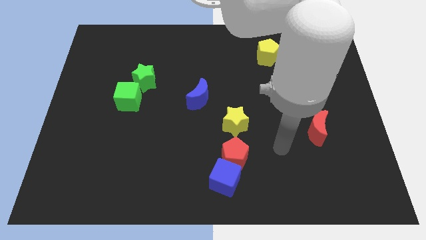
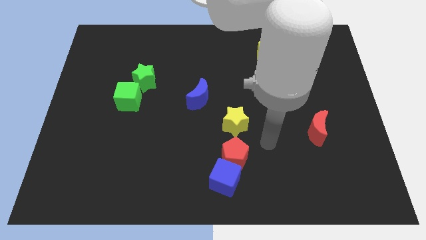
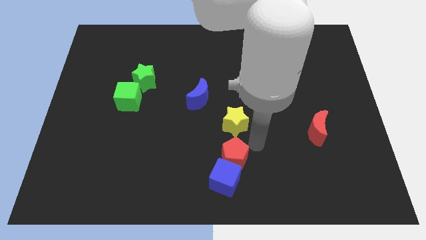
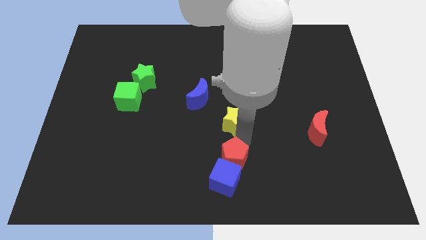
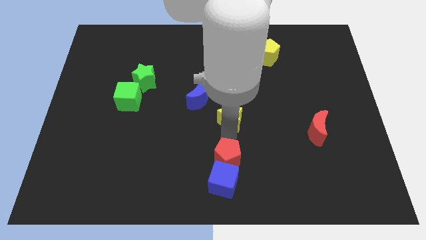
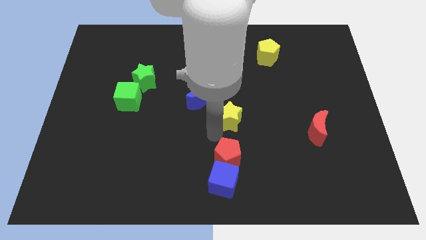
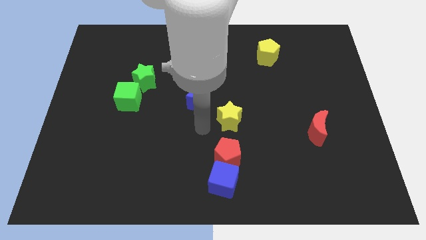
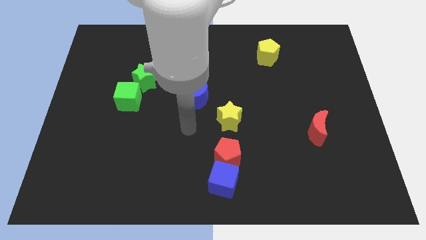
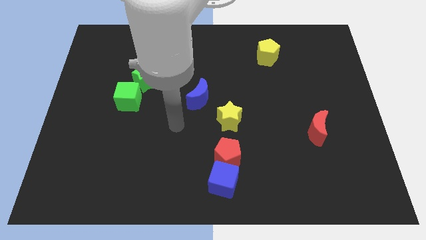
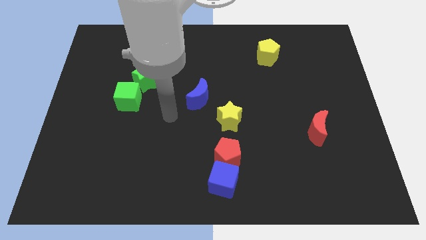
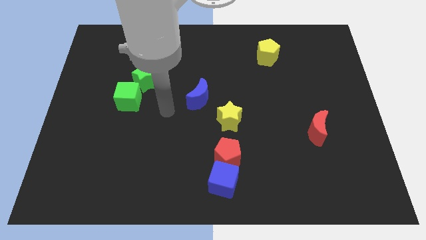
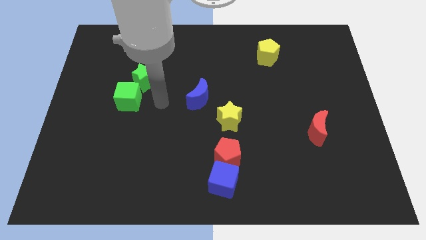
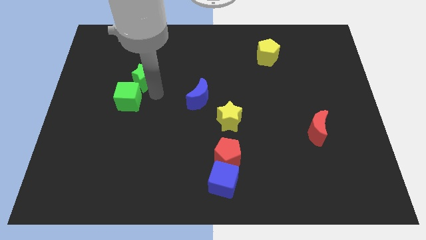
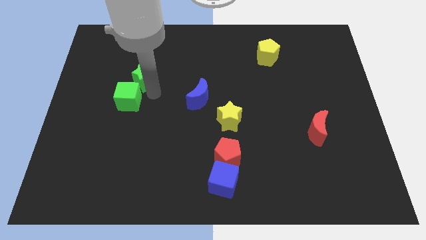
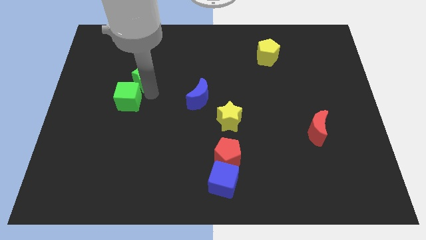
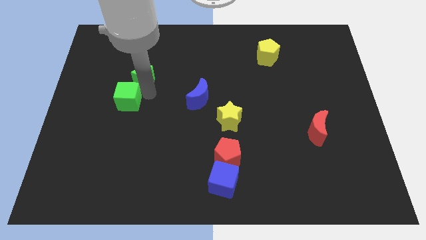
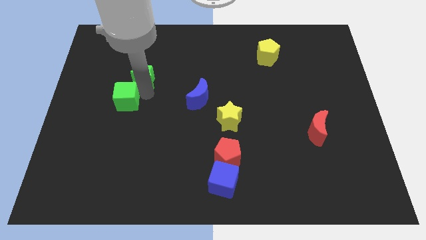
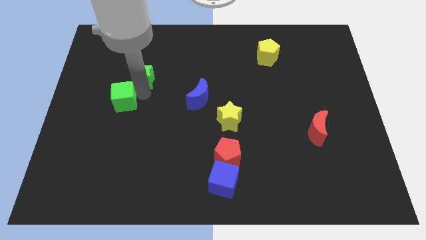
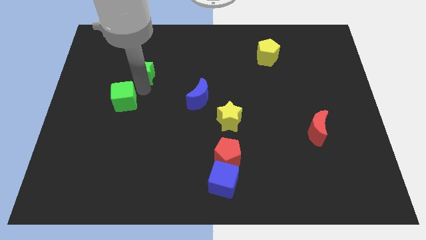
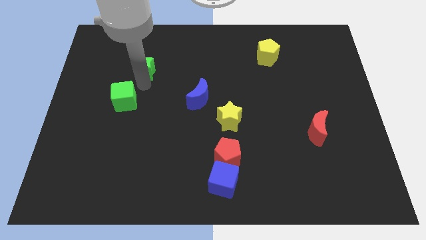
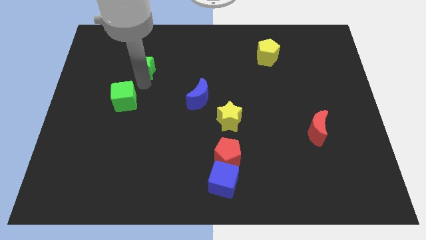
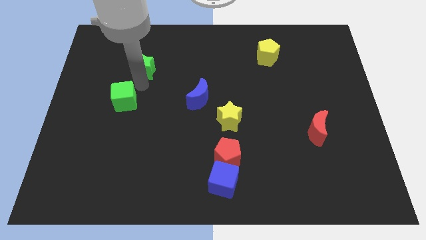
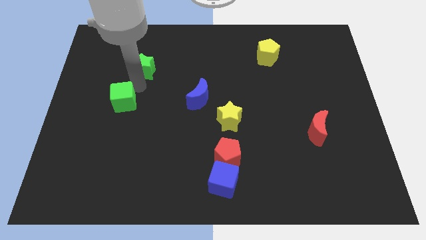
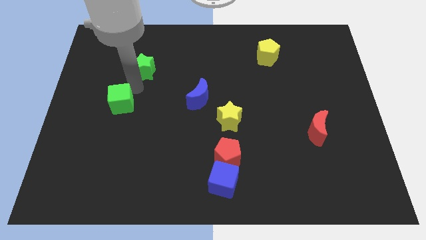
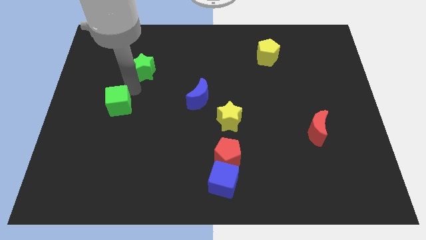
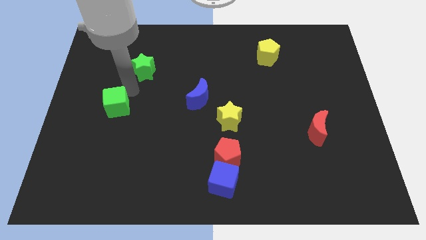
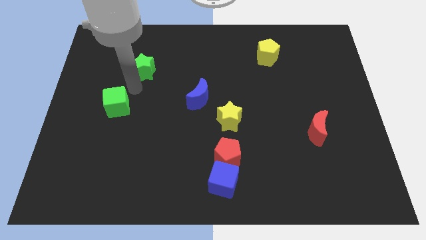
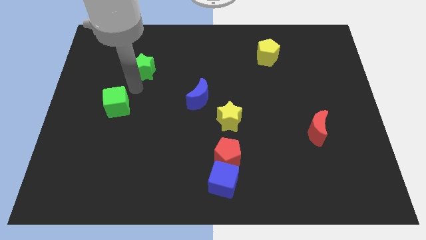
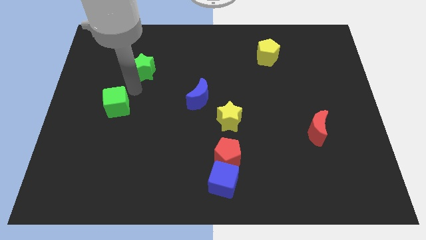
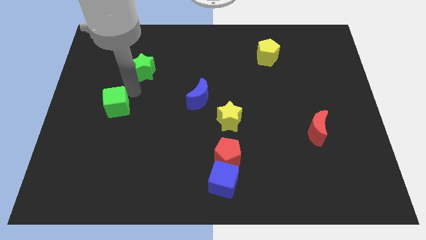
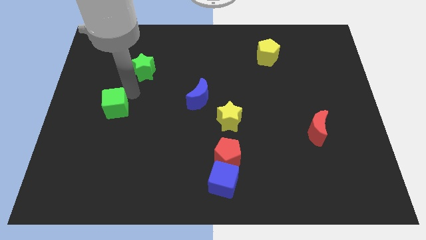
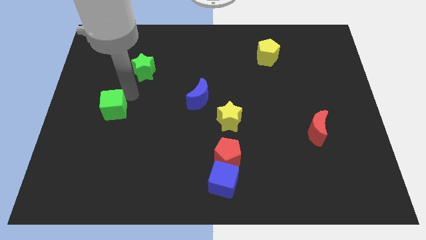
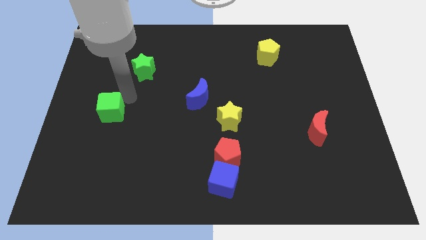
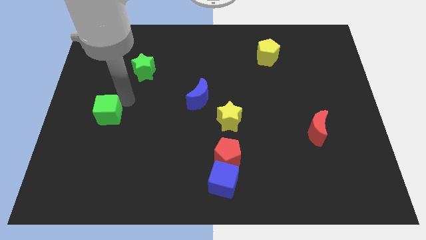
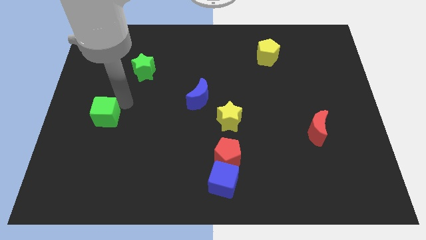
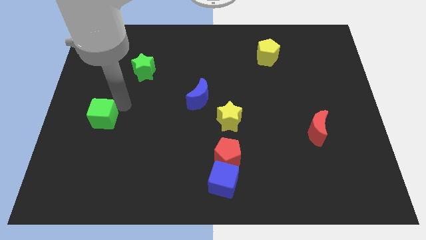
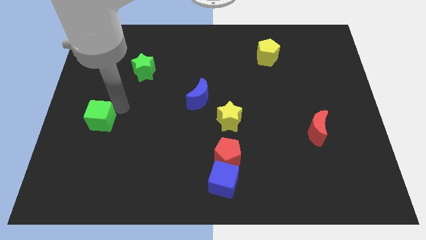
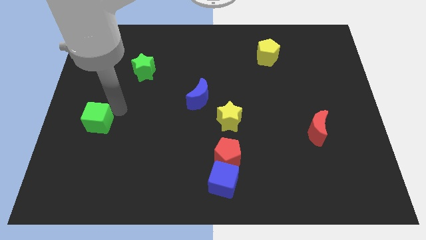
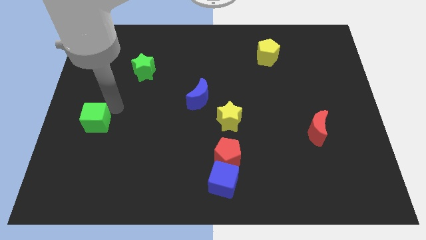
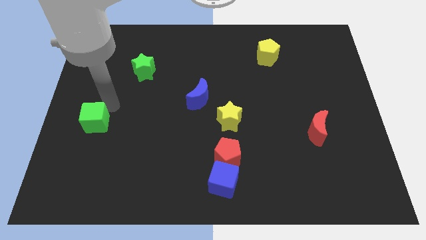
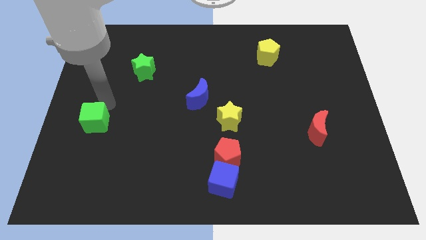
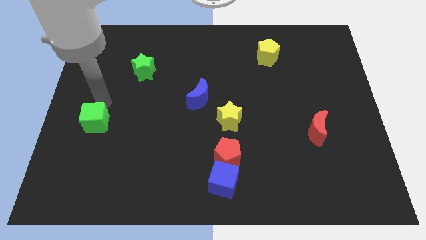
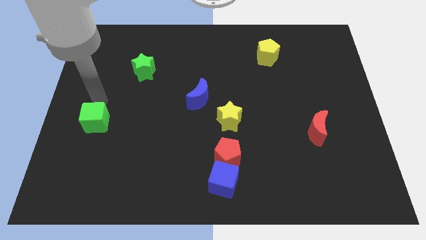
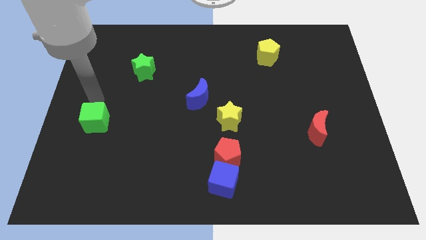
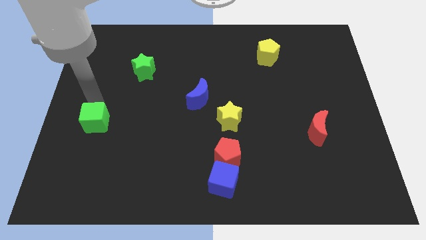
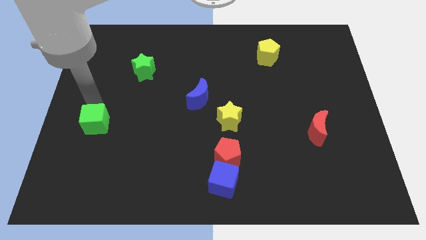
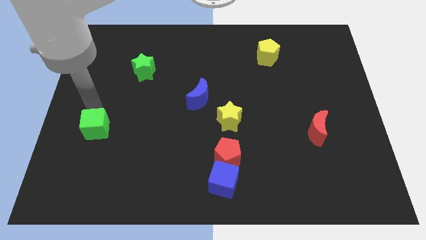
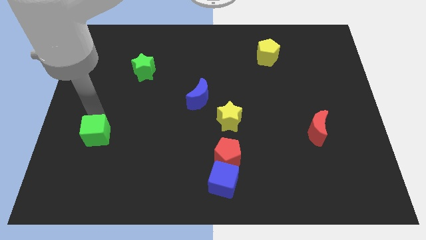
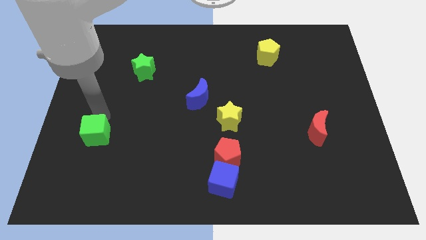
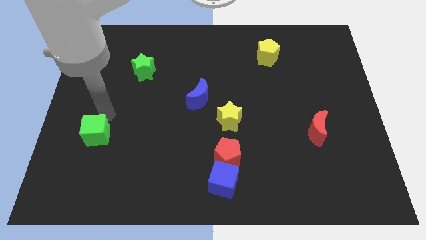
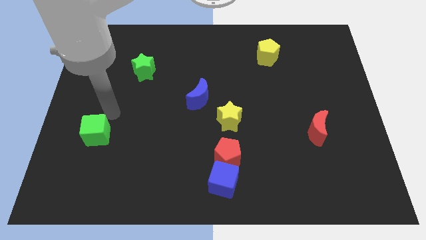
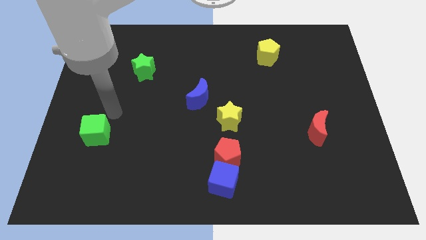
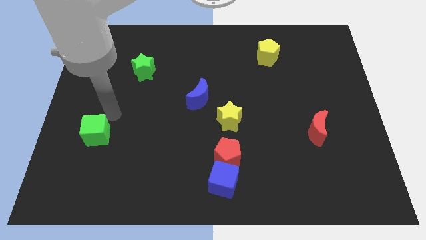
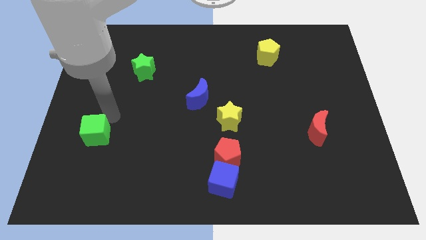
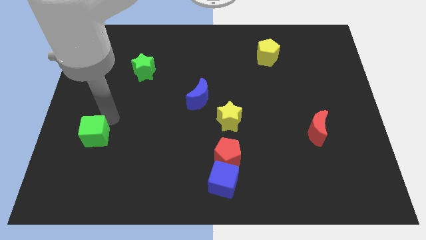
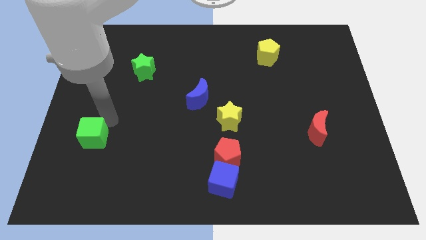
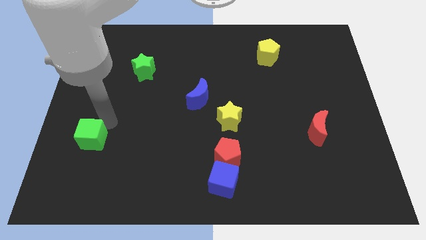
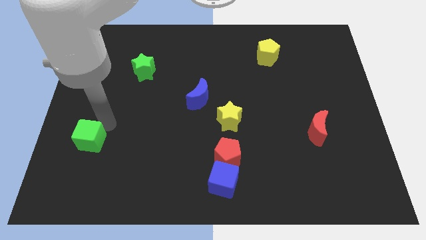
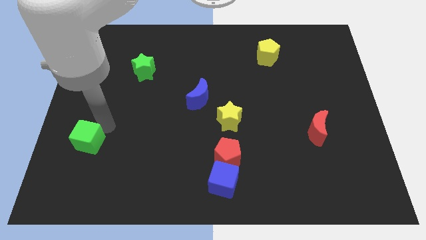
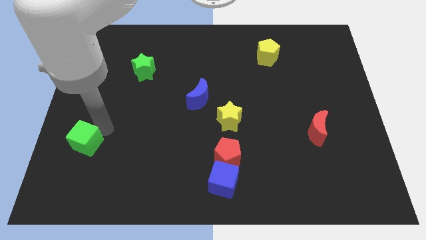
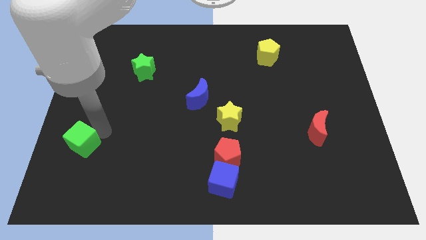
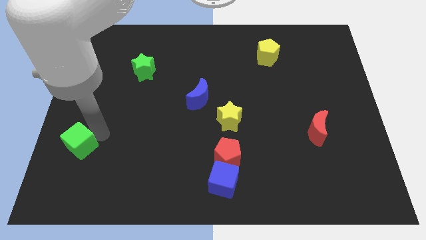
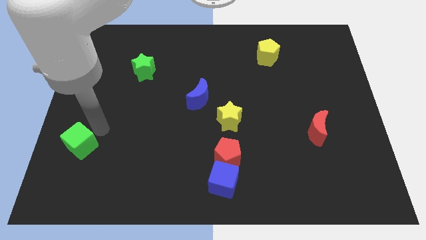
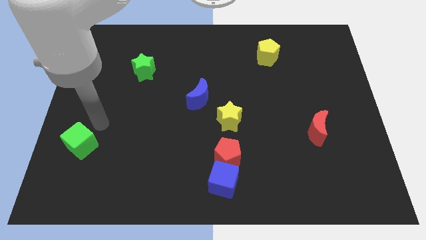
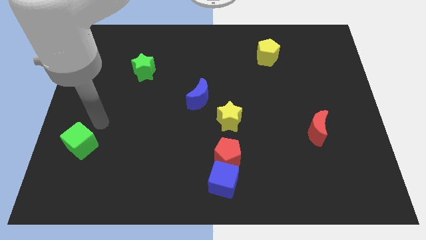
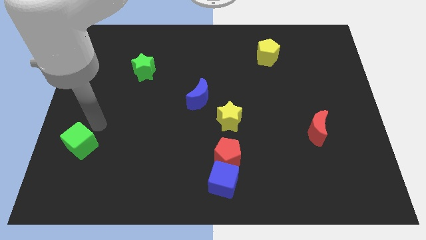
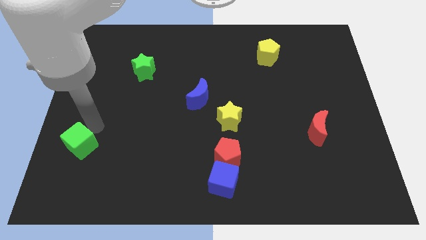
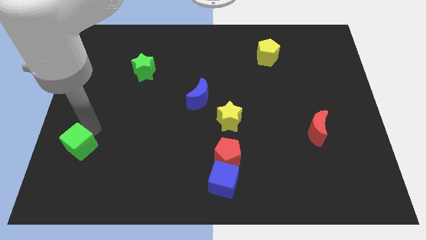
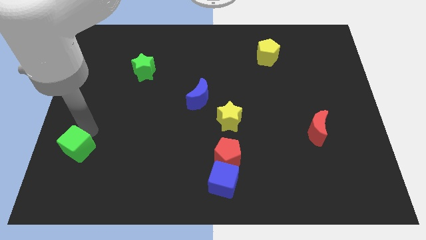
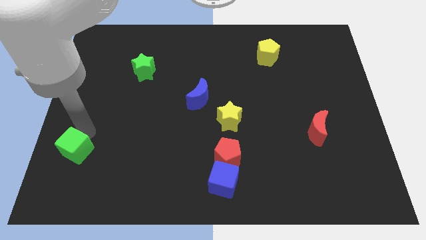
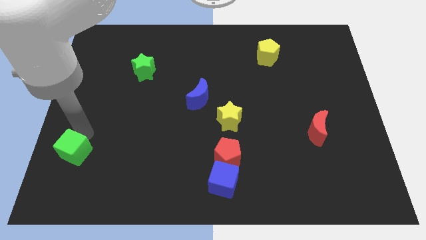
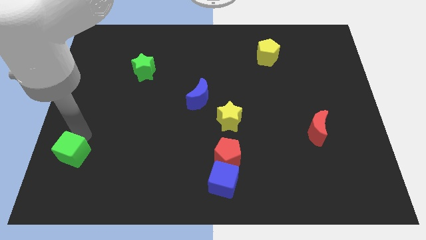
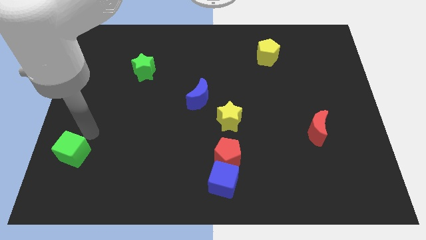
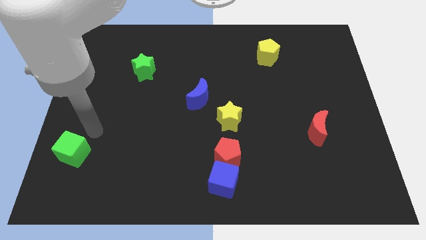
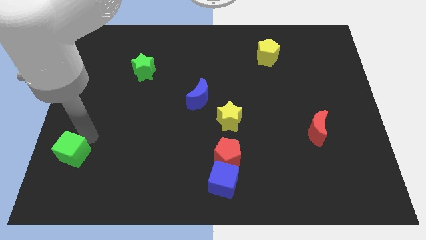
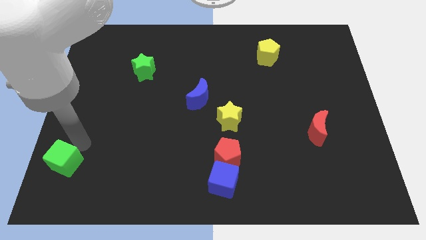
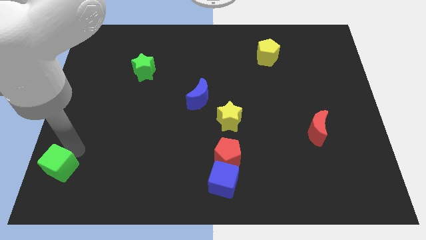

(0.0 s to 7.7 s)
slide the green cube to the lower left corner

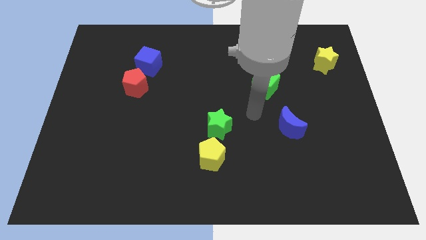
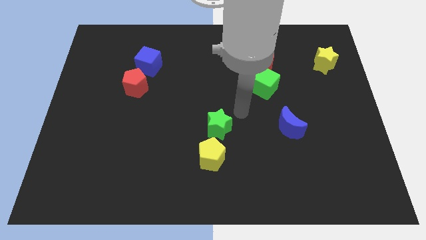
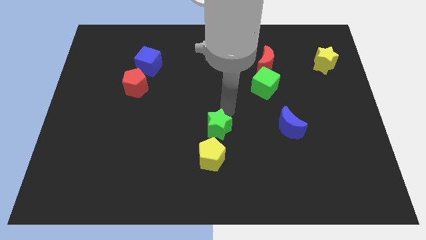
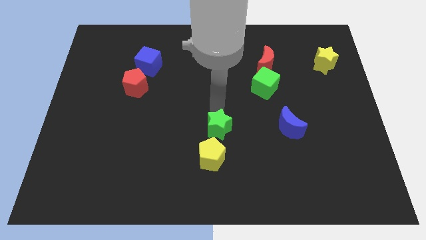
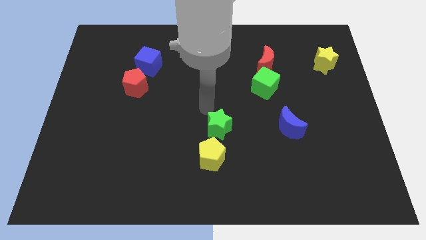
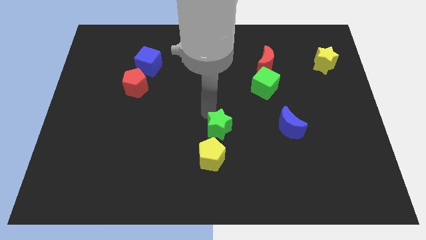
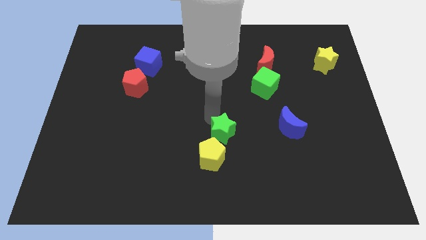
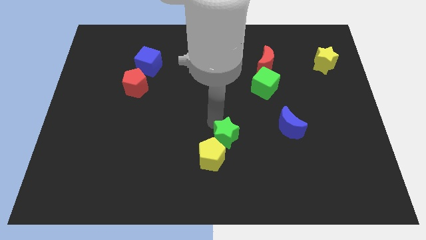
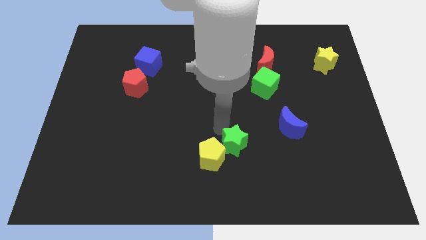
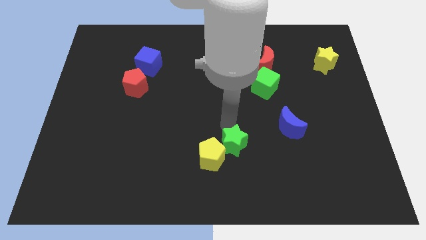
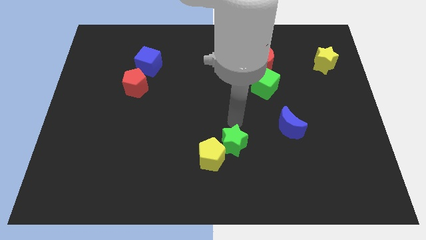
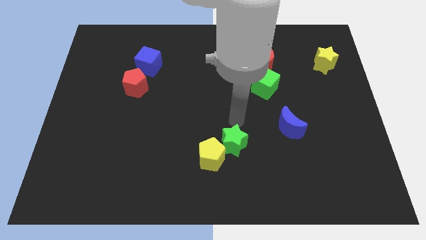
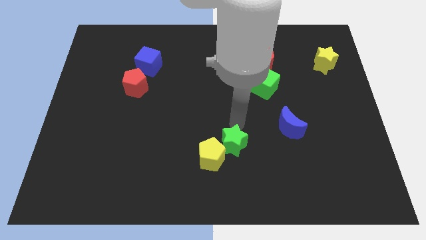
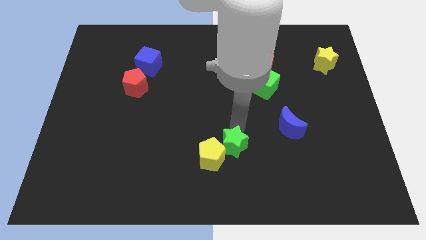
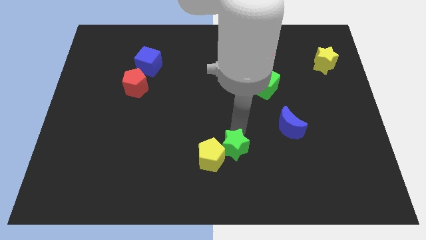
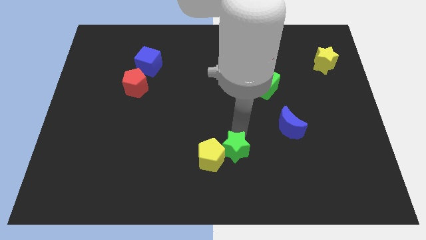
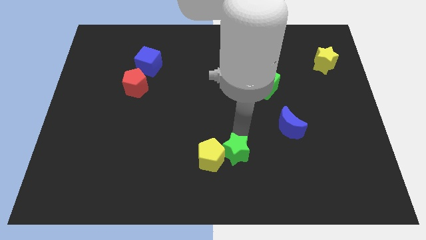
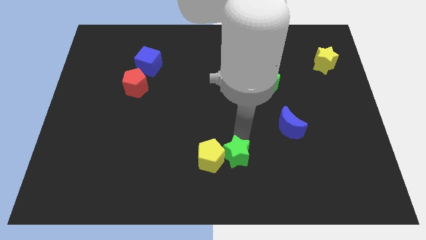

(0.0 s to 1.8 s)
push the green star to the bottom
